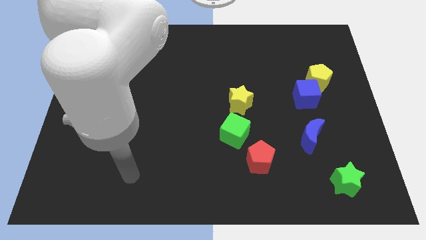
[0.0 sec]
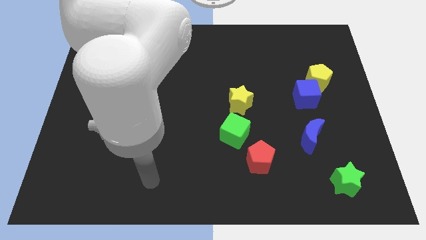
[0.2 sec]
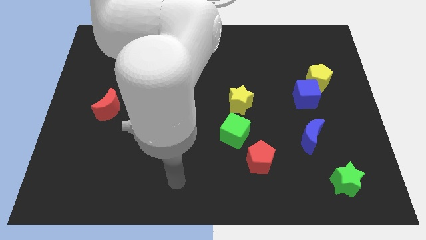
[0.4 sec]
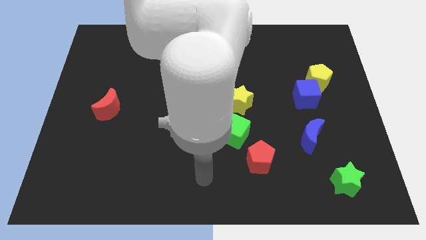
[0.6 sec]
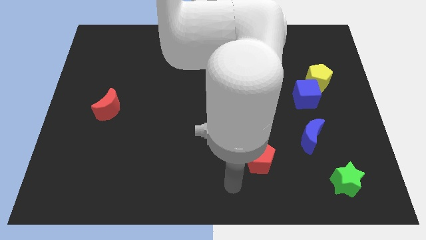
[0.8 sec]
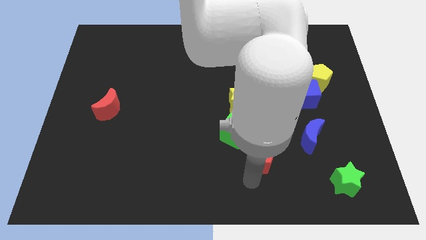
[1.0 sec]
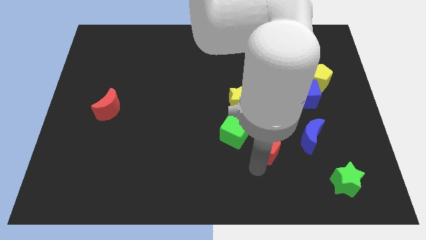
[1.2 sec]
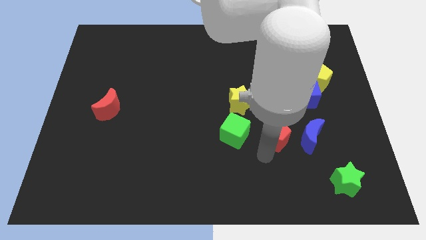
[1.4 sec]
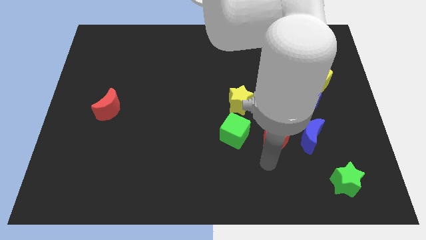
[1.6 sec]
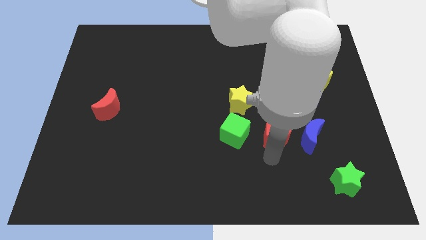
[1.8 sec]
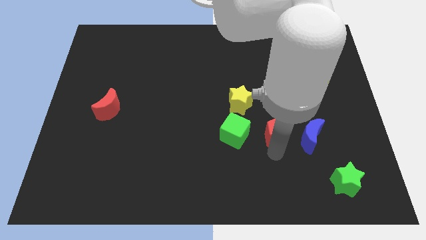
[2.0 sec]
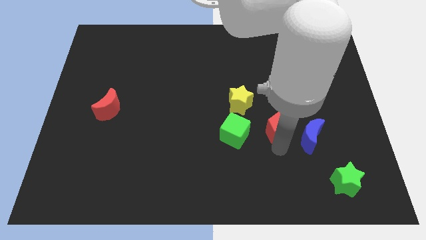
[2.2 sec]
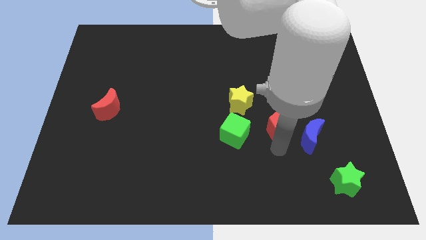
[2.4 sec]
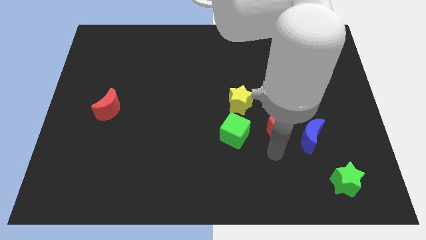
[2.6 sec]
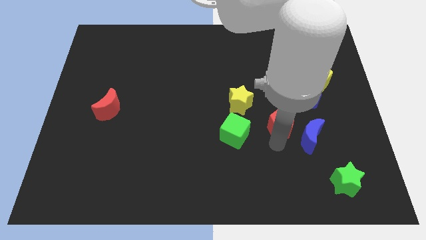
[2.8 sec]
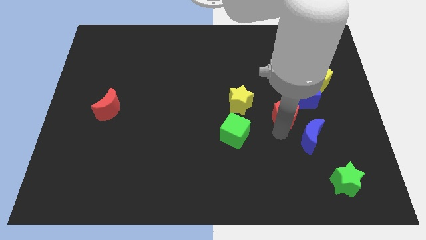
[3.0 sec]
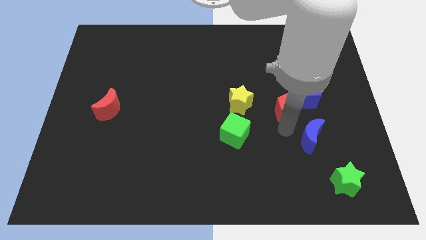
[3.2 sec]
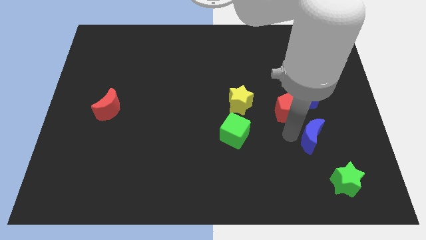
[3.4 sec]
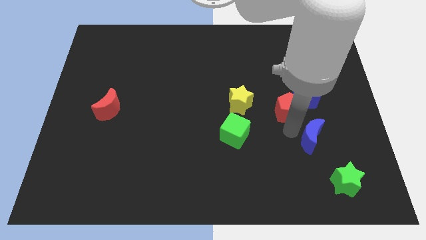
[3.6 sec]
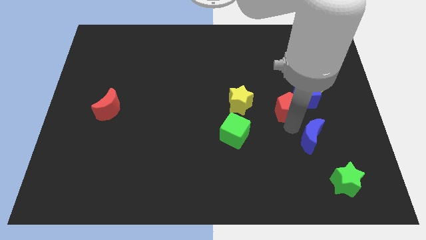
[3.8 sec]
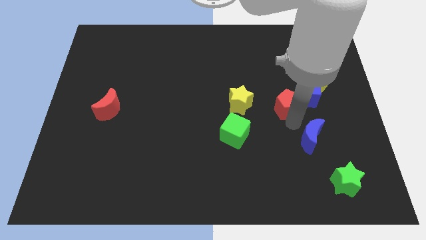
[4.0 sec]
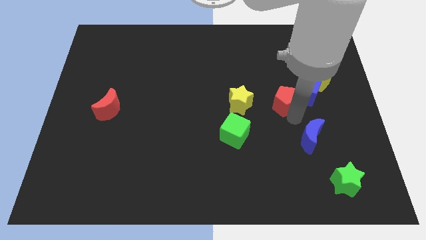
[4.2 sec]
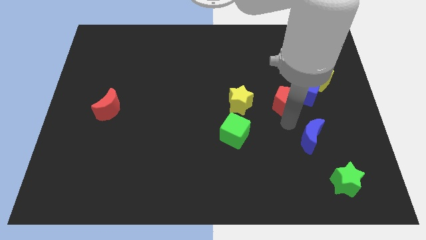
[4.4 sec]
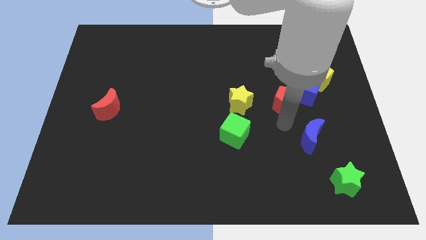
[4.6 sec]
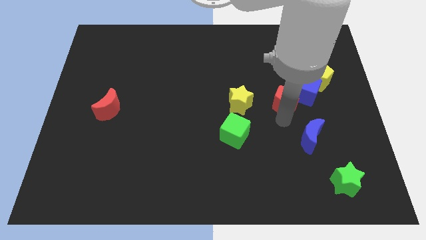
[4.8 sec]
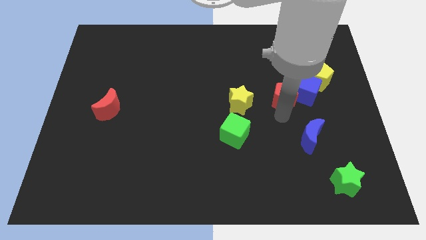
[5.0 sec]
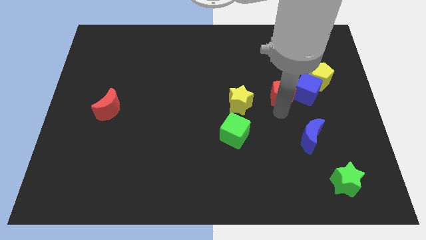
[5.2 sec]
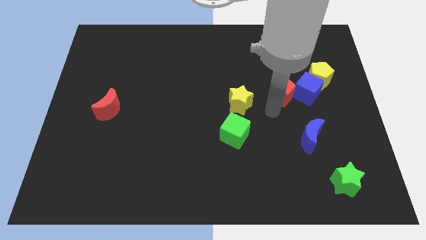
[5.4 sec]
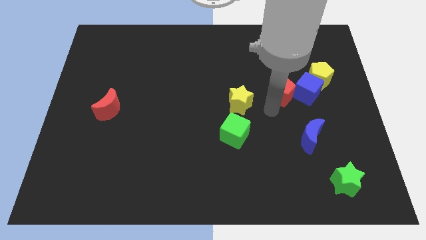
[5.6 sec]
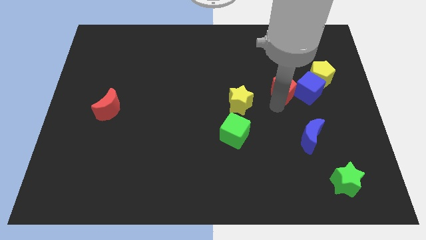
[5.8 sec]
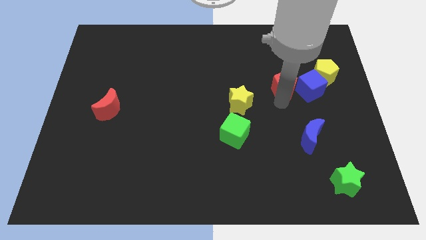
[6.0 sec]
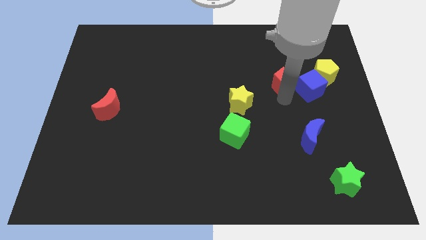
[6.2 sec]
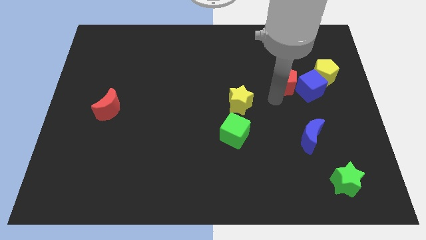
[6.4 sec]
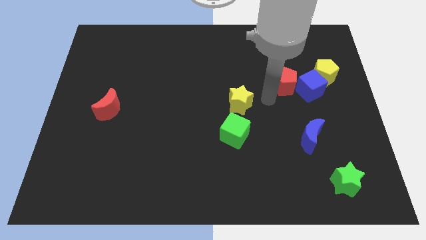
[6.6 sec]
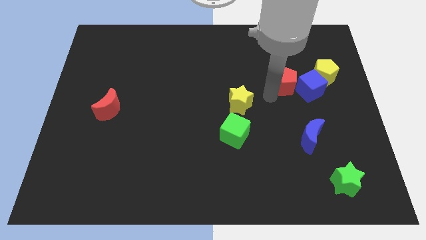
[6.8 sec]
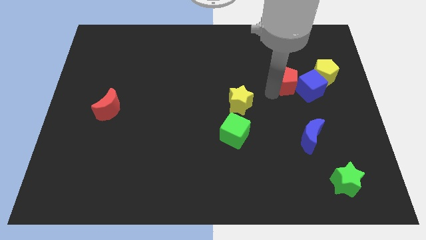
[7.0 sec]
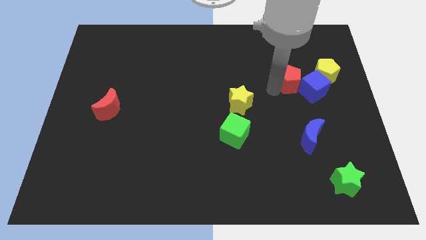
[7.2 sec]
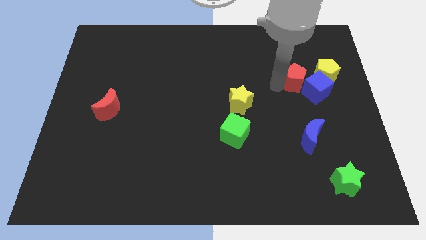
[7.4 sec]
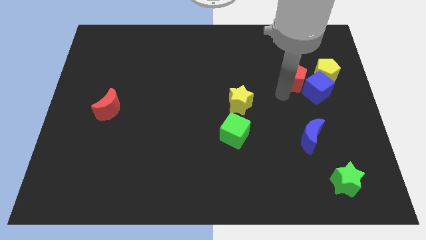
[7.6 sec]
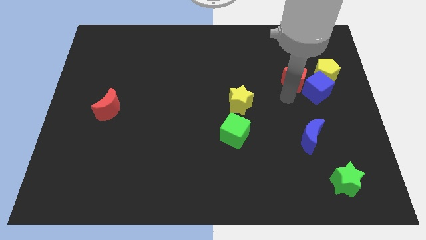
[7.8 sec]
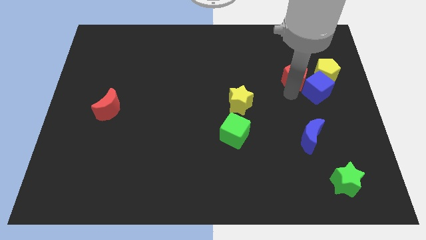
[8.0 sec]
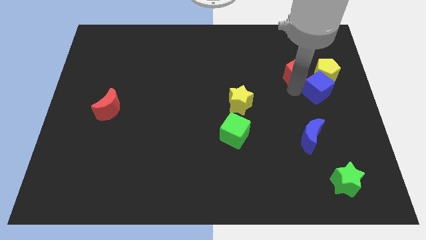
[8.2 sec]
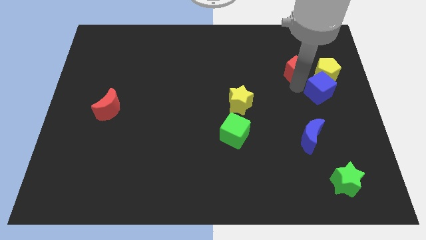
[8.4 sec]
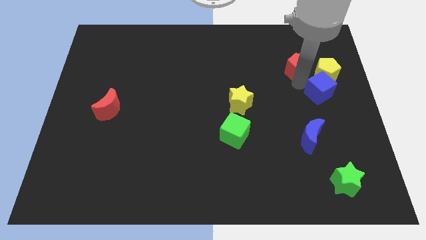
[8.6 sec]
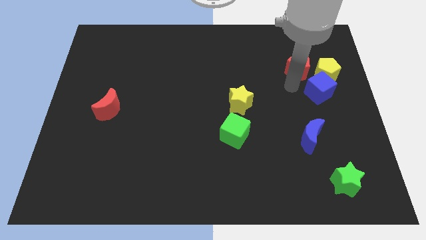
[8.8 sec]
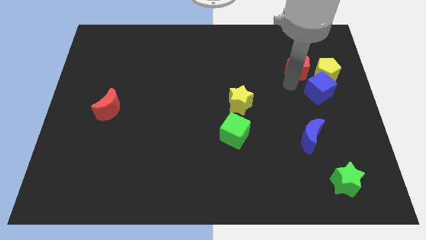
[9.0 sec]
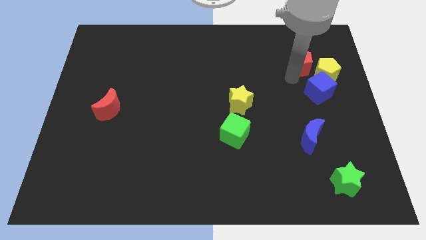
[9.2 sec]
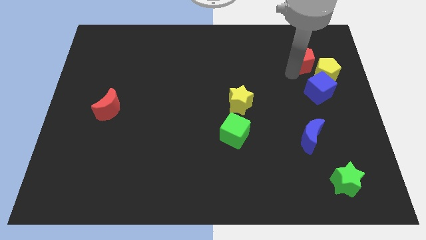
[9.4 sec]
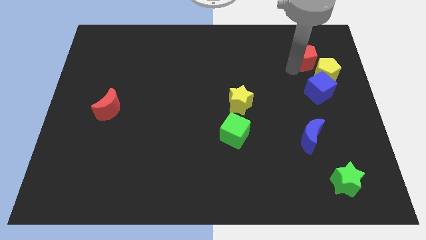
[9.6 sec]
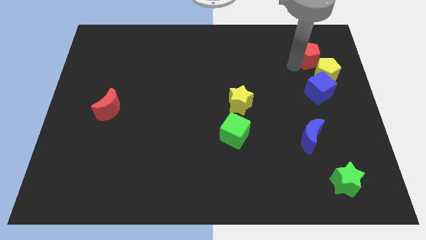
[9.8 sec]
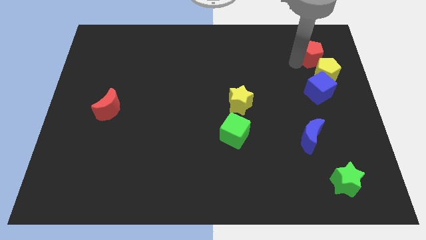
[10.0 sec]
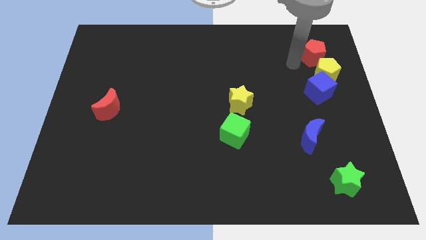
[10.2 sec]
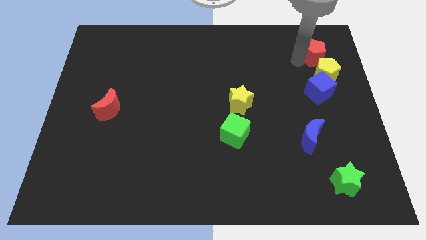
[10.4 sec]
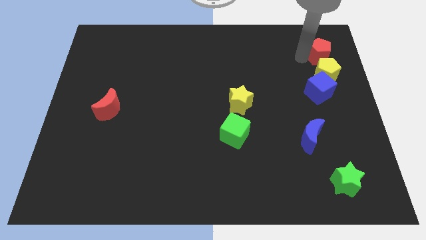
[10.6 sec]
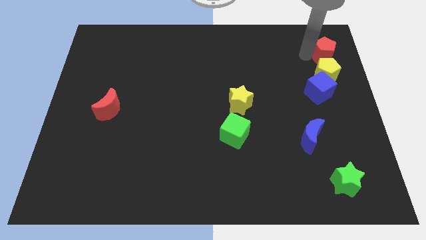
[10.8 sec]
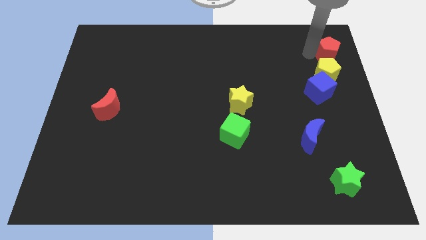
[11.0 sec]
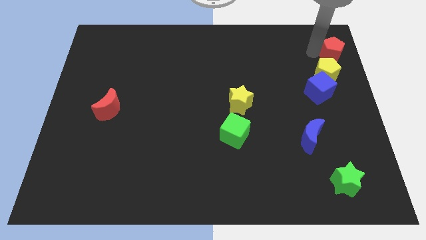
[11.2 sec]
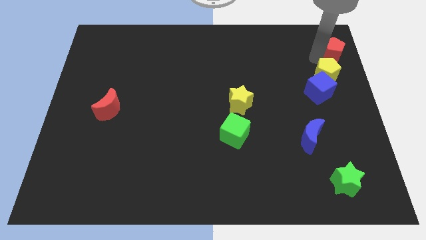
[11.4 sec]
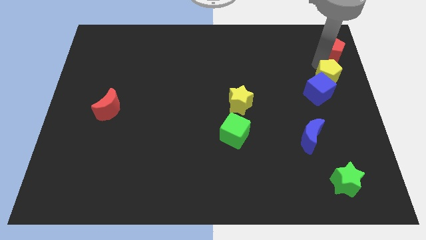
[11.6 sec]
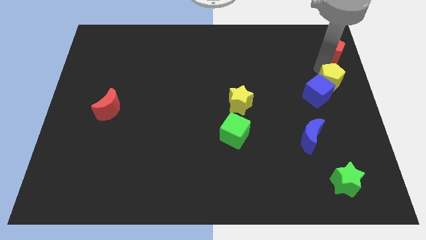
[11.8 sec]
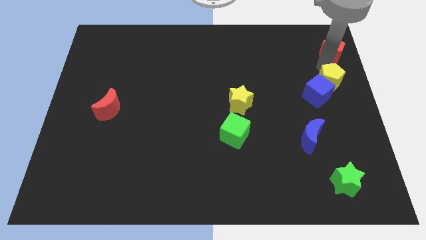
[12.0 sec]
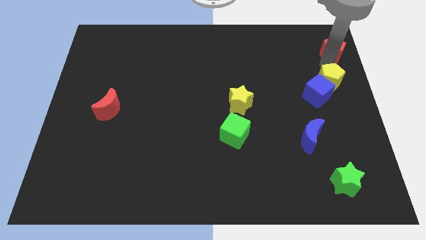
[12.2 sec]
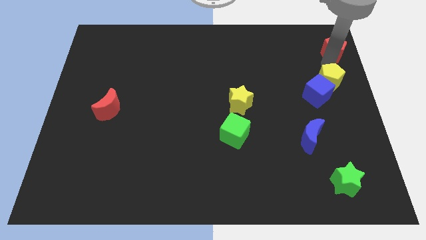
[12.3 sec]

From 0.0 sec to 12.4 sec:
move the red pentagon to the top right corner
